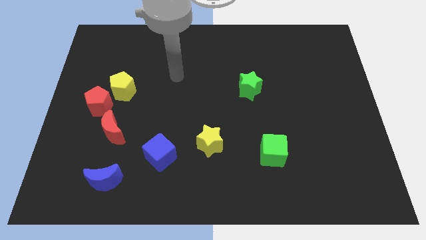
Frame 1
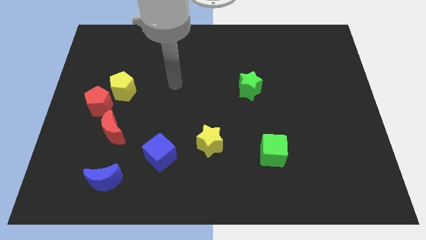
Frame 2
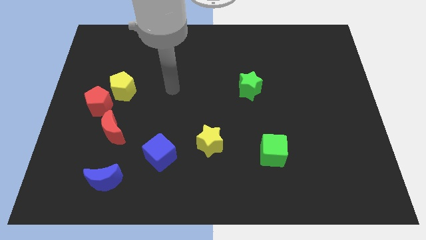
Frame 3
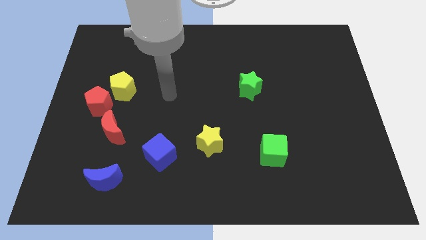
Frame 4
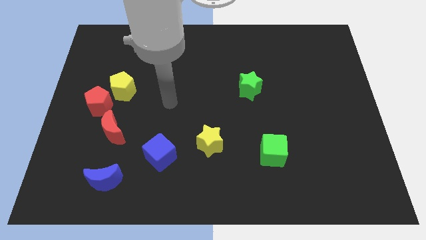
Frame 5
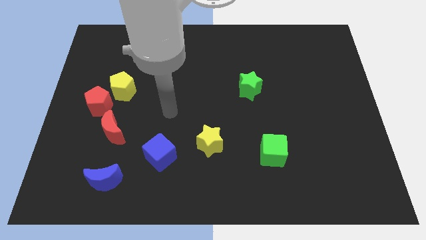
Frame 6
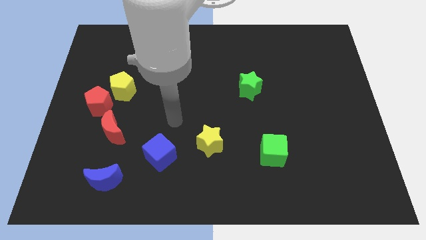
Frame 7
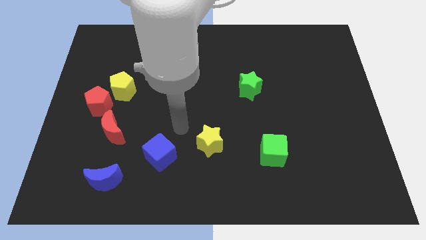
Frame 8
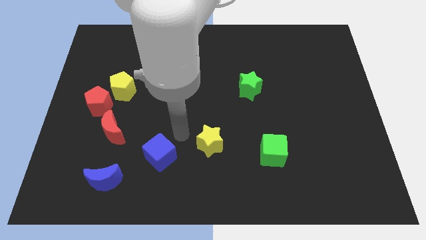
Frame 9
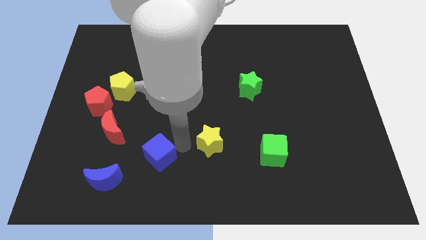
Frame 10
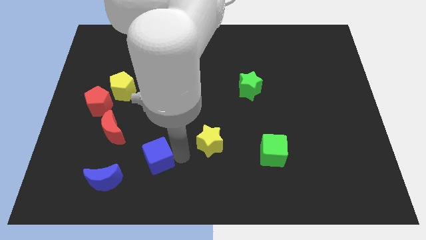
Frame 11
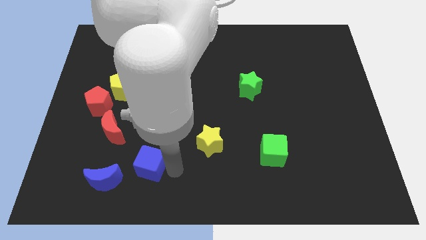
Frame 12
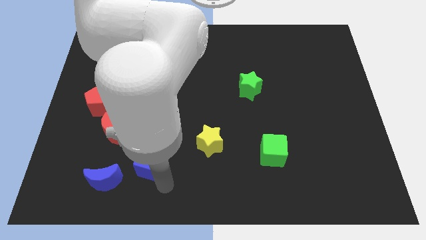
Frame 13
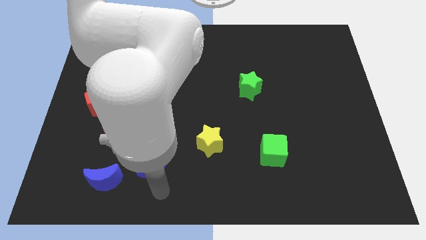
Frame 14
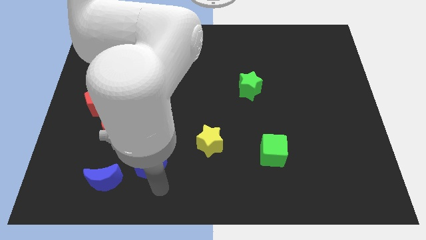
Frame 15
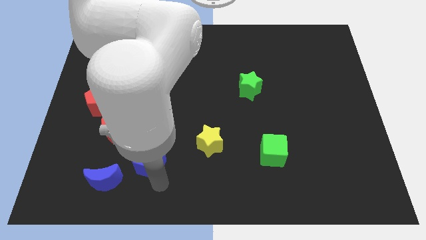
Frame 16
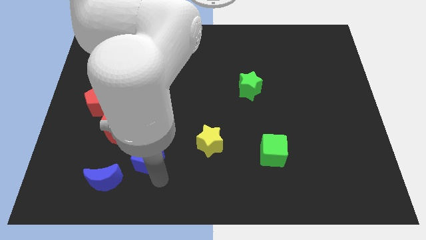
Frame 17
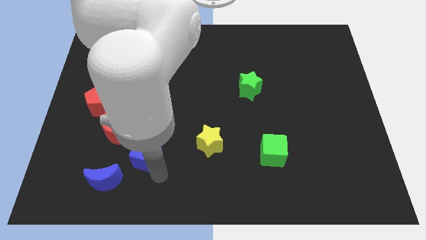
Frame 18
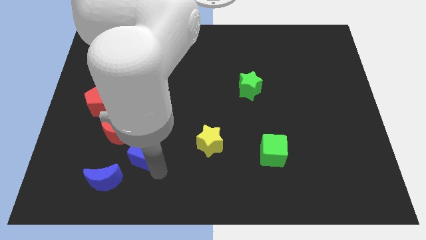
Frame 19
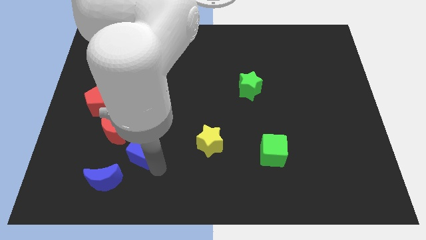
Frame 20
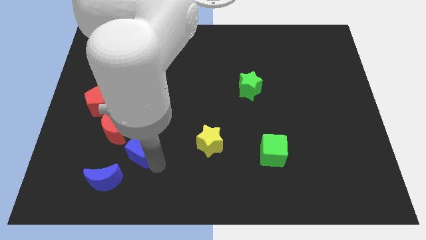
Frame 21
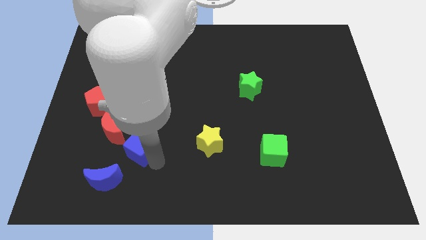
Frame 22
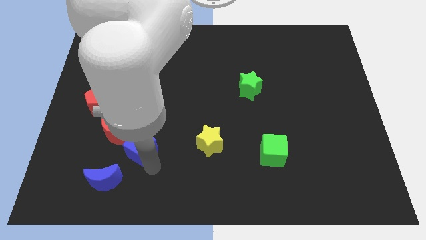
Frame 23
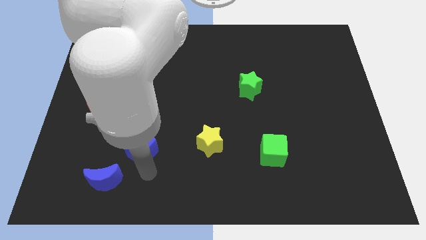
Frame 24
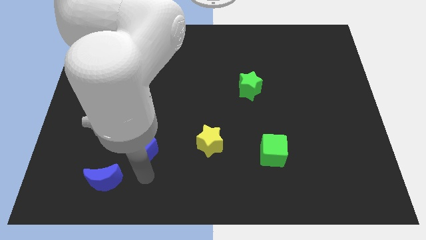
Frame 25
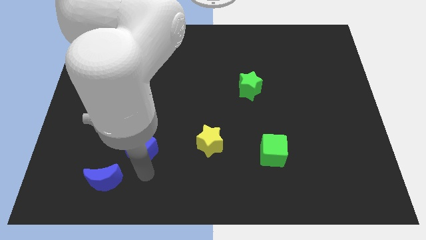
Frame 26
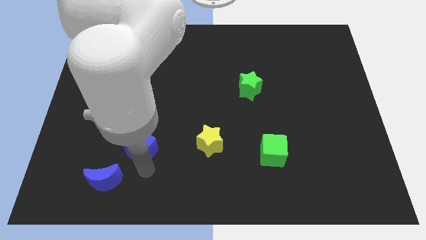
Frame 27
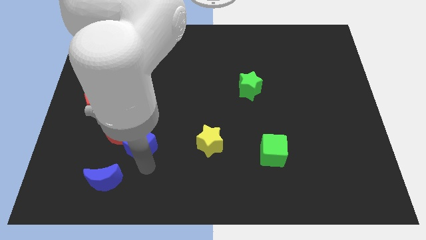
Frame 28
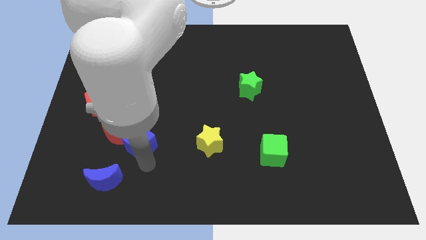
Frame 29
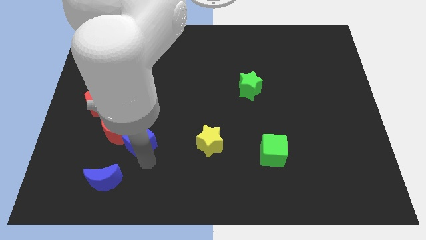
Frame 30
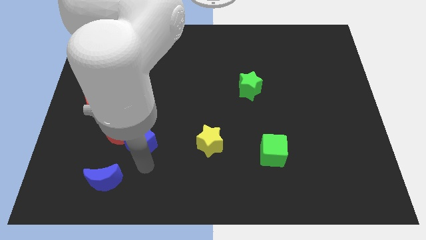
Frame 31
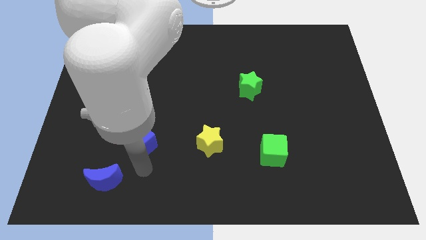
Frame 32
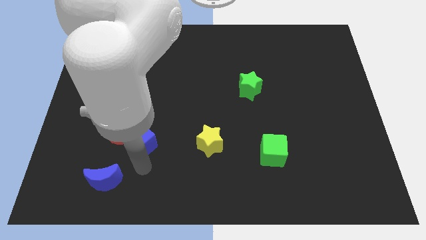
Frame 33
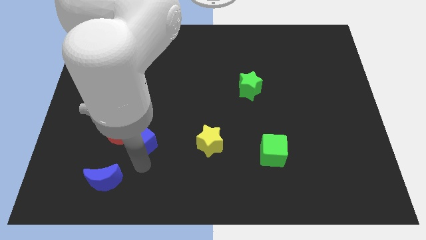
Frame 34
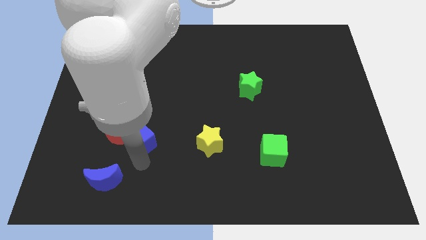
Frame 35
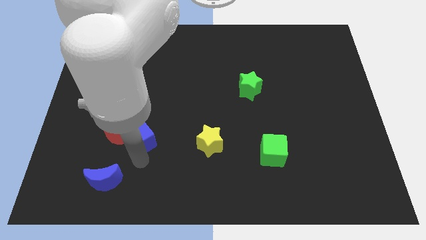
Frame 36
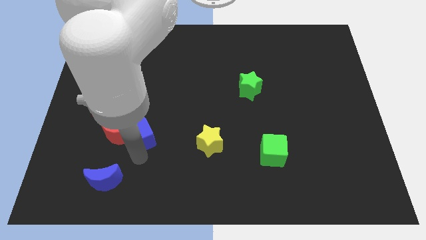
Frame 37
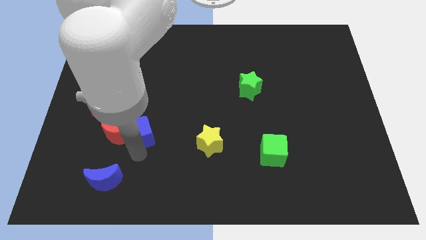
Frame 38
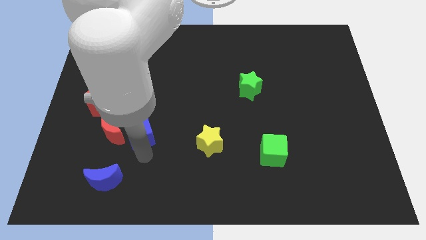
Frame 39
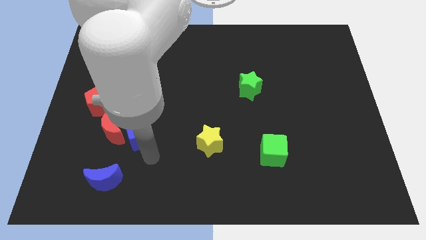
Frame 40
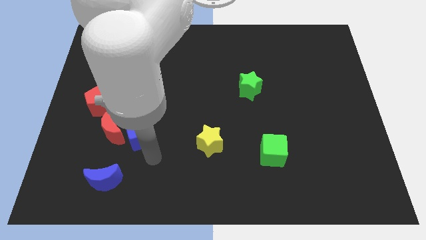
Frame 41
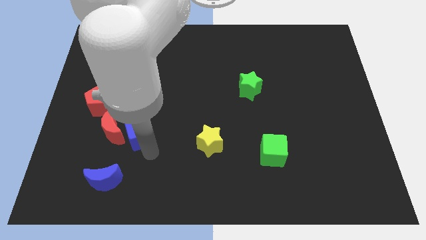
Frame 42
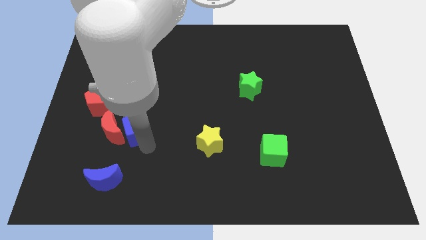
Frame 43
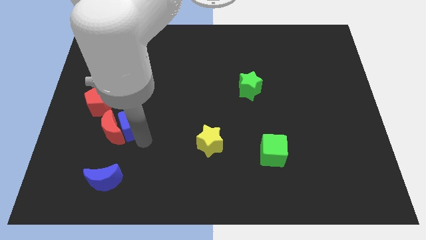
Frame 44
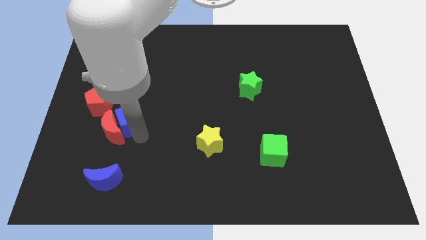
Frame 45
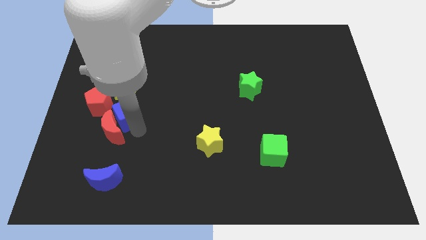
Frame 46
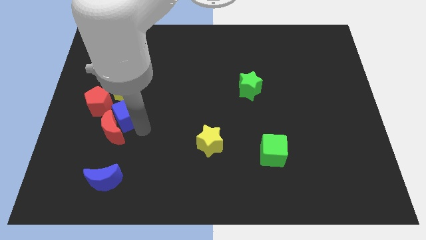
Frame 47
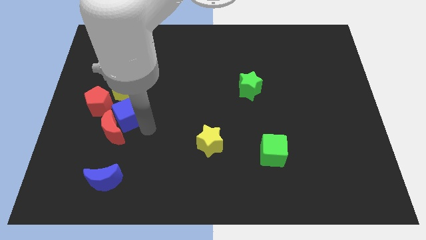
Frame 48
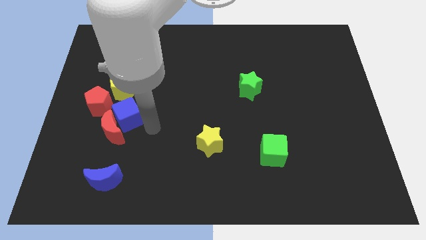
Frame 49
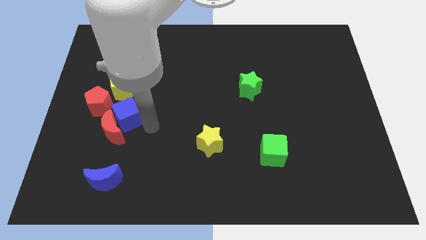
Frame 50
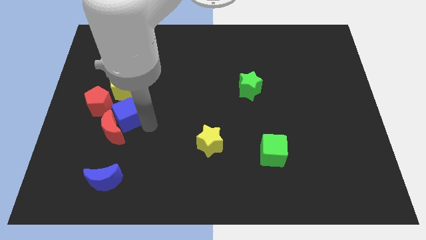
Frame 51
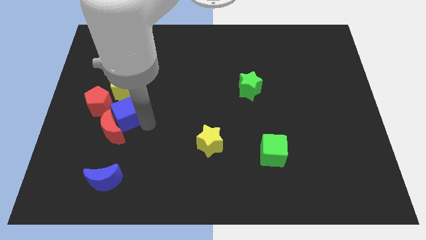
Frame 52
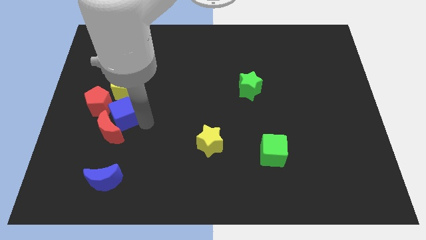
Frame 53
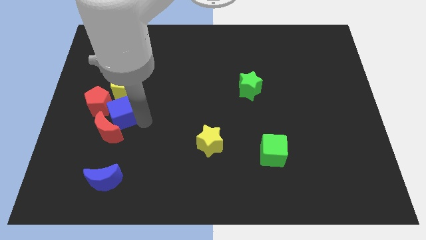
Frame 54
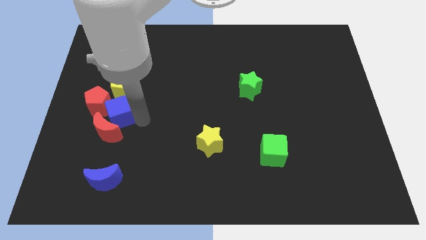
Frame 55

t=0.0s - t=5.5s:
put the blue cube towards the red pentagon
